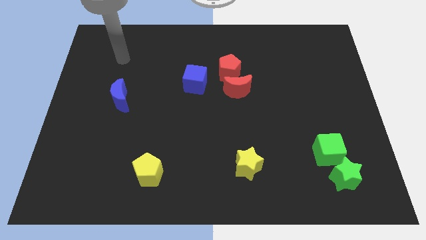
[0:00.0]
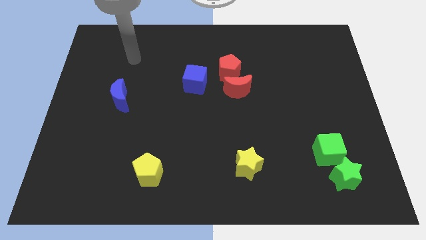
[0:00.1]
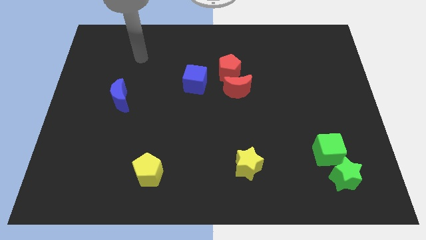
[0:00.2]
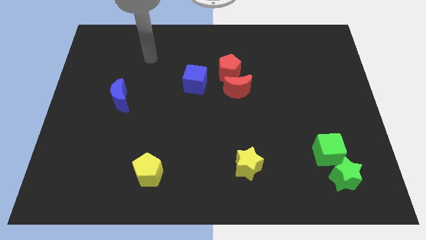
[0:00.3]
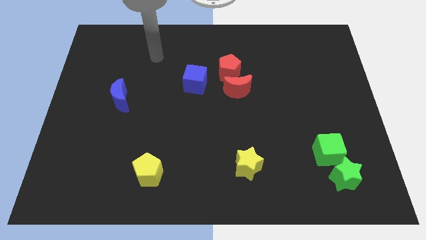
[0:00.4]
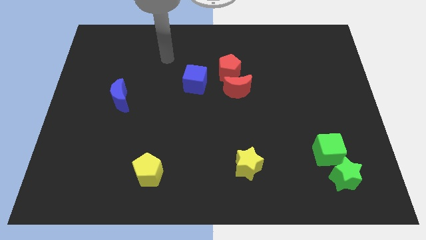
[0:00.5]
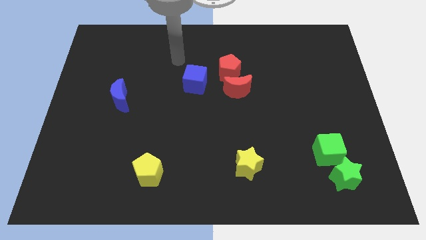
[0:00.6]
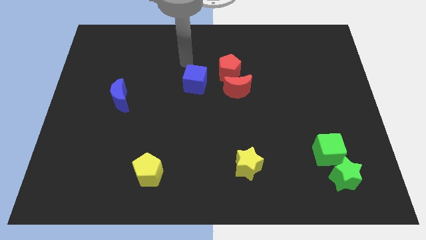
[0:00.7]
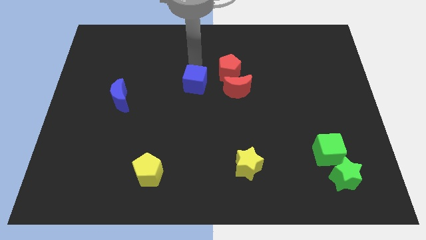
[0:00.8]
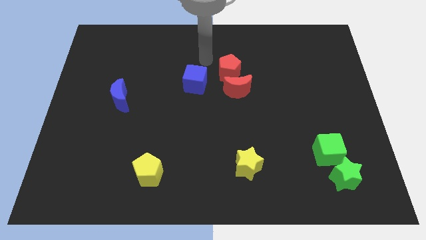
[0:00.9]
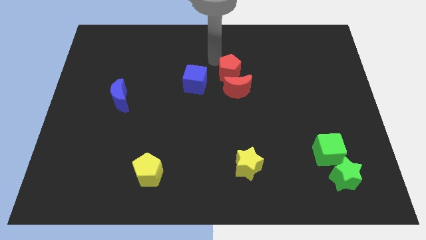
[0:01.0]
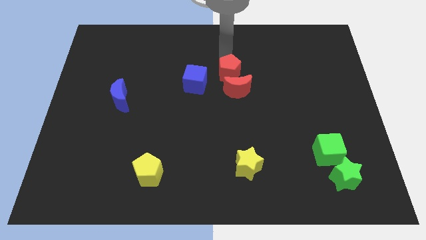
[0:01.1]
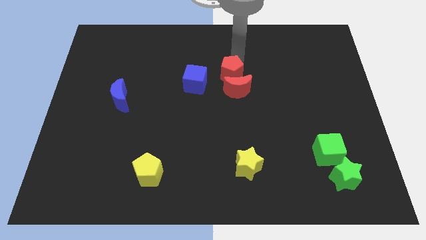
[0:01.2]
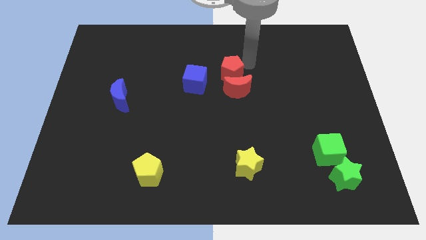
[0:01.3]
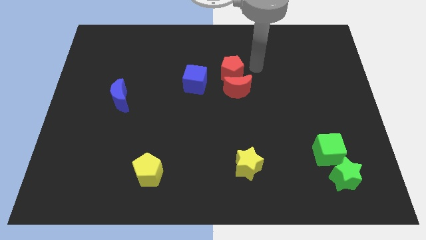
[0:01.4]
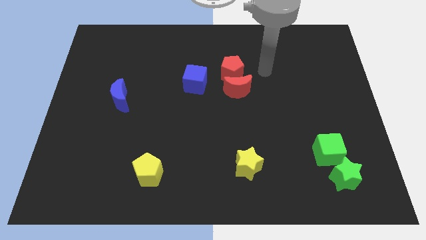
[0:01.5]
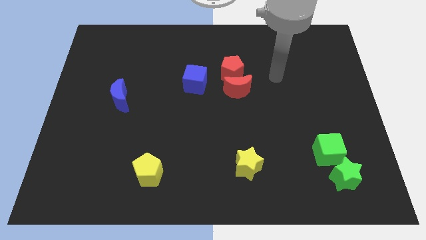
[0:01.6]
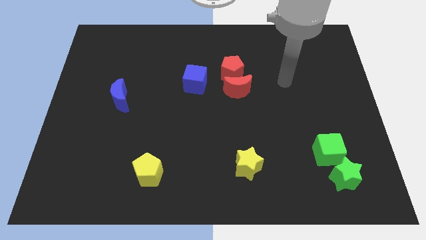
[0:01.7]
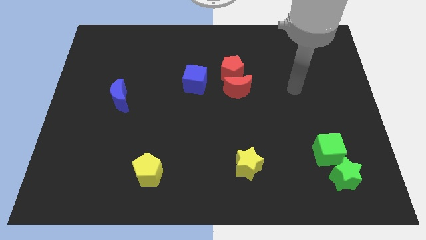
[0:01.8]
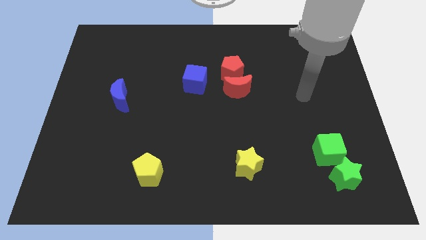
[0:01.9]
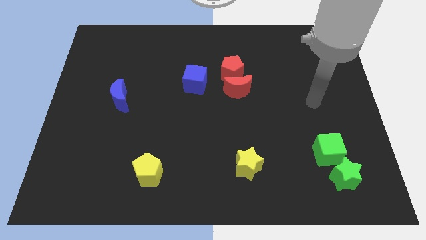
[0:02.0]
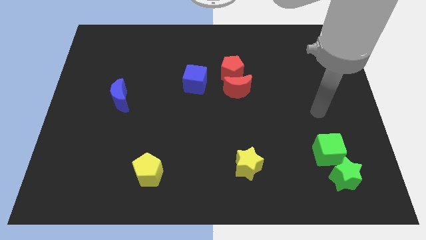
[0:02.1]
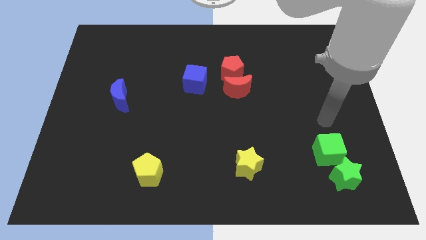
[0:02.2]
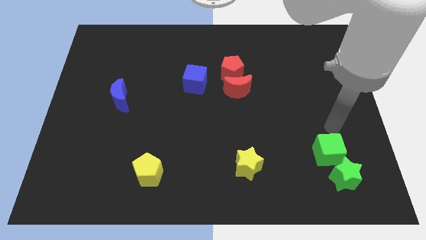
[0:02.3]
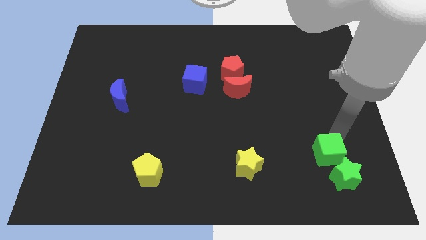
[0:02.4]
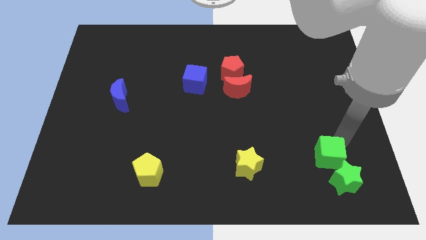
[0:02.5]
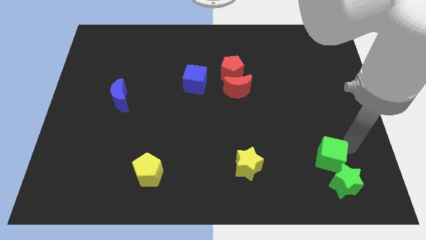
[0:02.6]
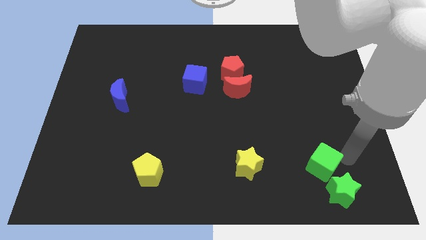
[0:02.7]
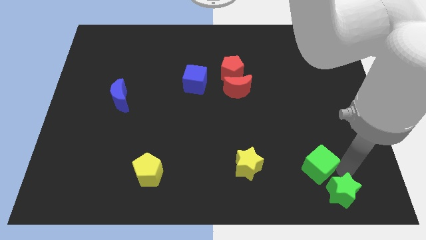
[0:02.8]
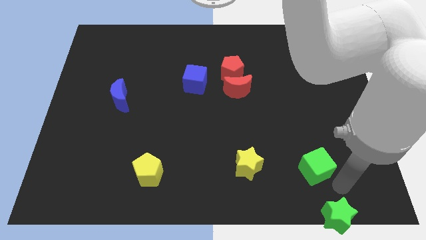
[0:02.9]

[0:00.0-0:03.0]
move the green cube away from the green star

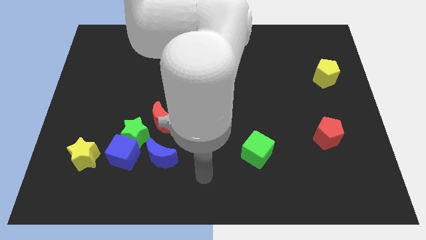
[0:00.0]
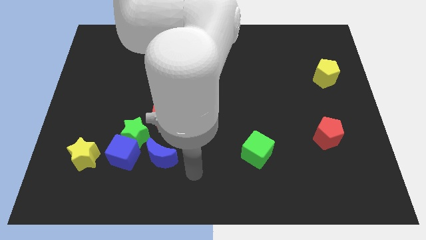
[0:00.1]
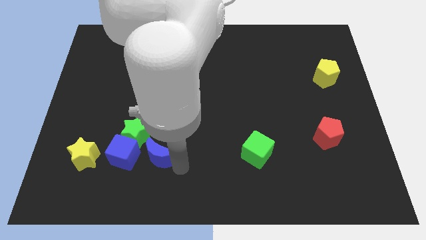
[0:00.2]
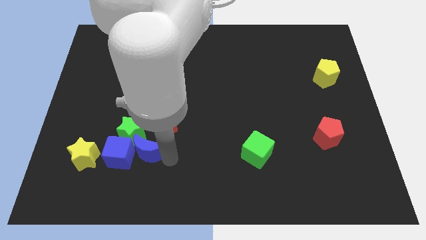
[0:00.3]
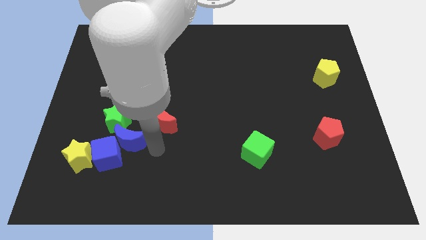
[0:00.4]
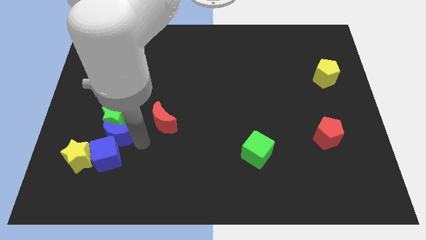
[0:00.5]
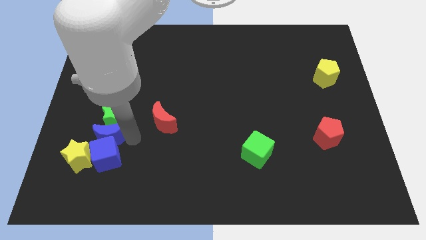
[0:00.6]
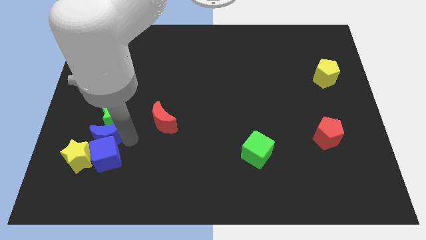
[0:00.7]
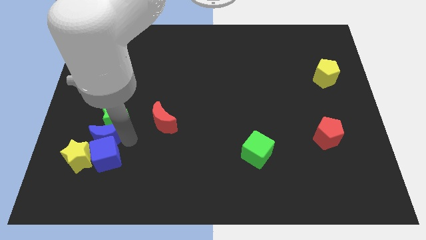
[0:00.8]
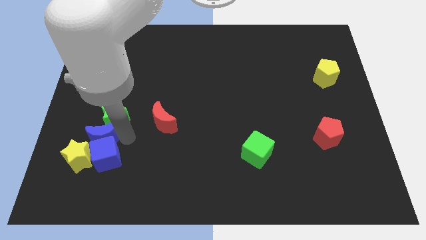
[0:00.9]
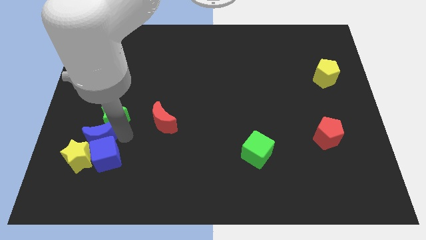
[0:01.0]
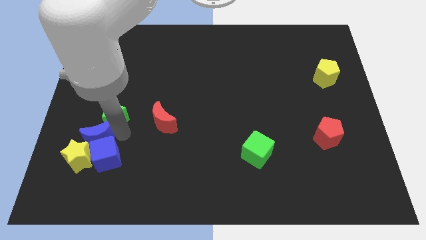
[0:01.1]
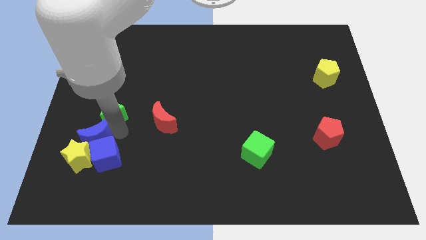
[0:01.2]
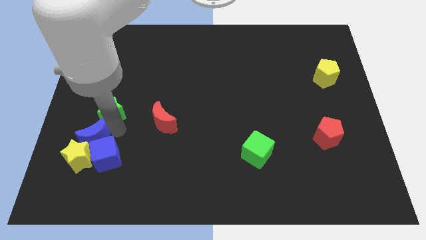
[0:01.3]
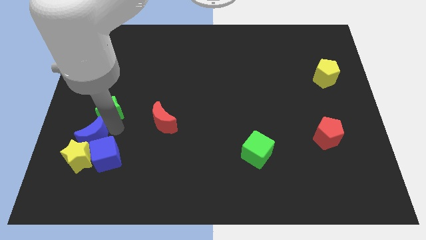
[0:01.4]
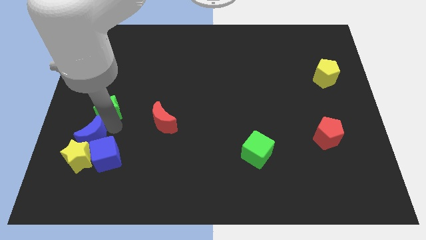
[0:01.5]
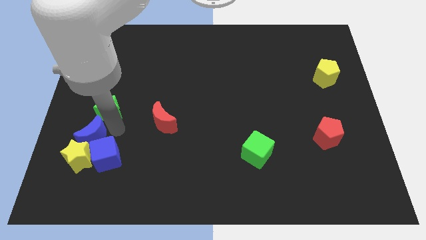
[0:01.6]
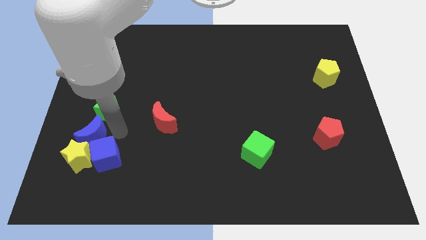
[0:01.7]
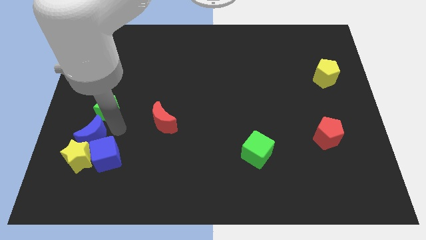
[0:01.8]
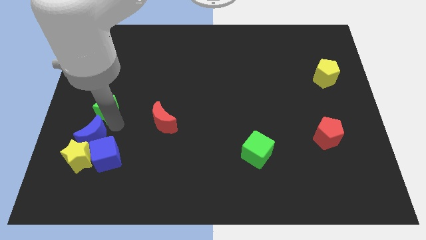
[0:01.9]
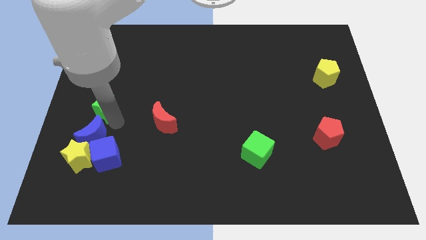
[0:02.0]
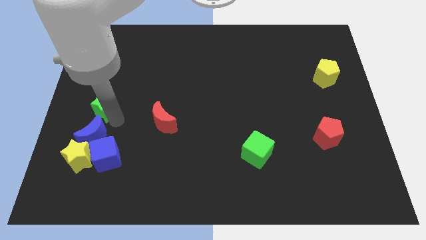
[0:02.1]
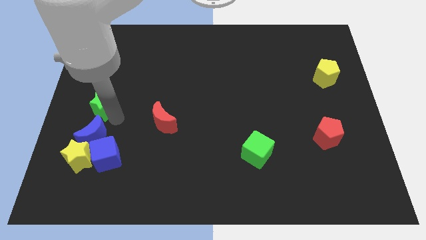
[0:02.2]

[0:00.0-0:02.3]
pull the green star apart from the blue cube, red moon, and blue moon

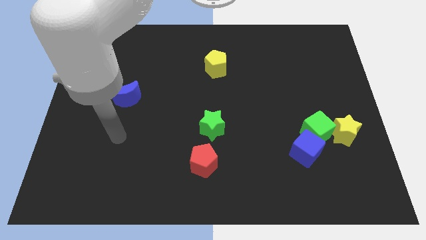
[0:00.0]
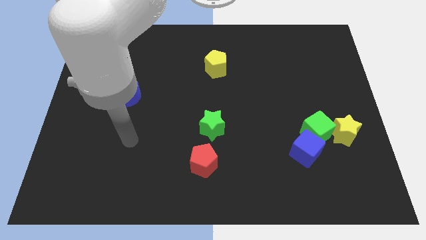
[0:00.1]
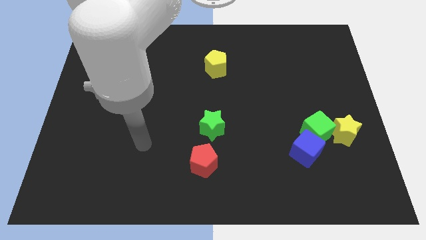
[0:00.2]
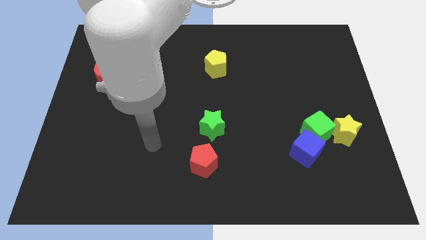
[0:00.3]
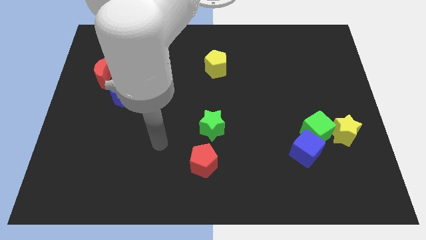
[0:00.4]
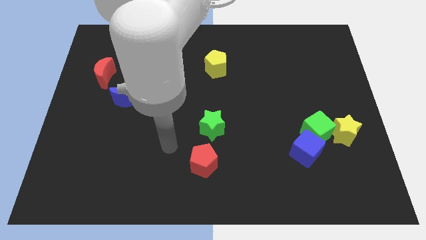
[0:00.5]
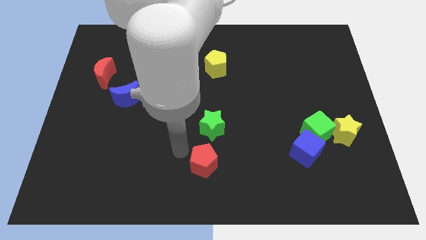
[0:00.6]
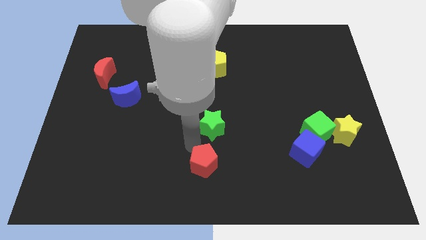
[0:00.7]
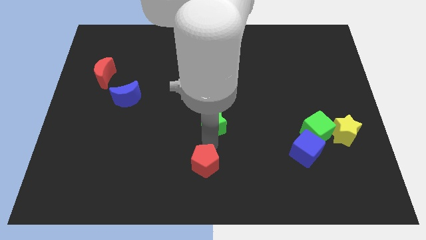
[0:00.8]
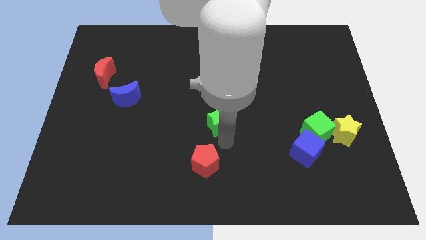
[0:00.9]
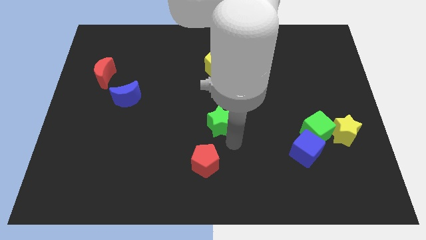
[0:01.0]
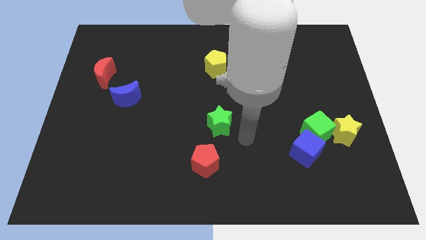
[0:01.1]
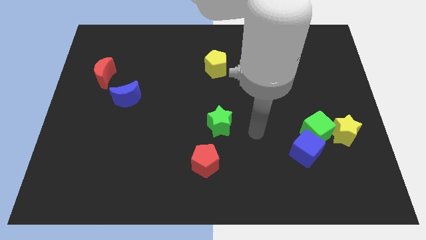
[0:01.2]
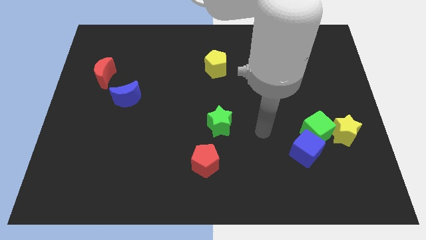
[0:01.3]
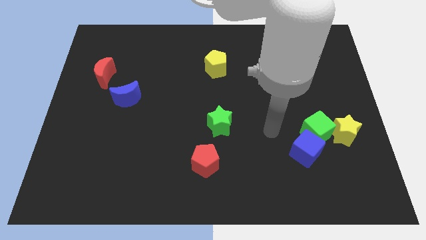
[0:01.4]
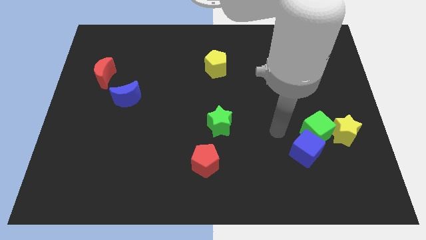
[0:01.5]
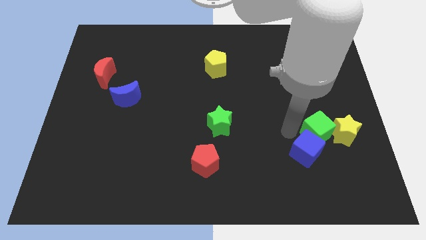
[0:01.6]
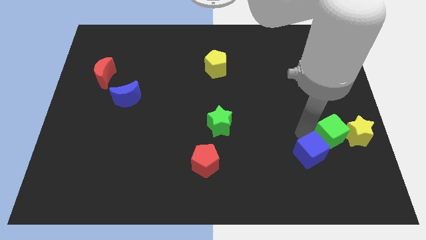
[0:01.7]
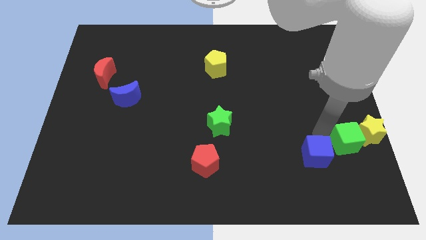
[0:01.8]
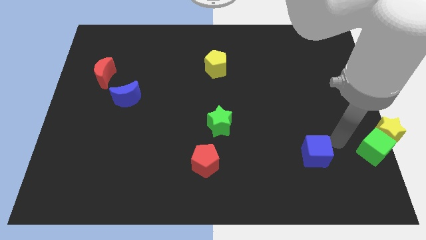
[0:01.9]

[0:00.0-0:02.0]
move the blue cube away from the green cube

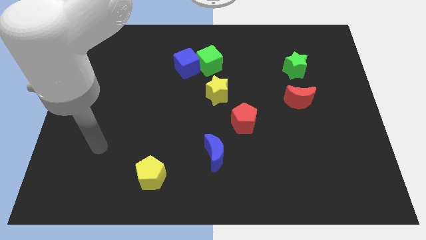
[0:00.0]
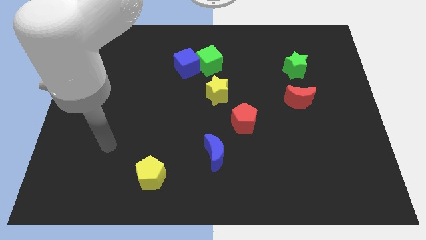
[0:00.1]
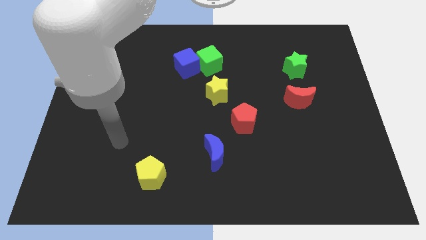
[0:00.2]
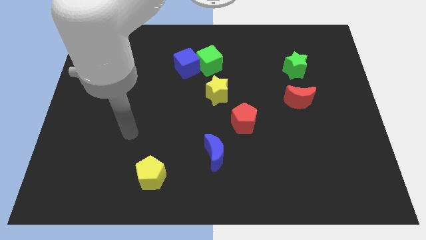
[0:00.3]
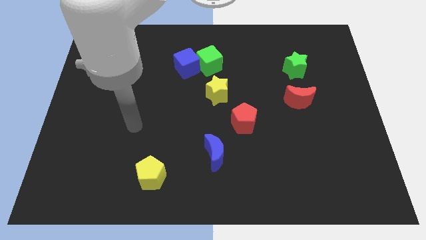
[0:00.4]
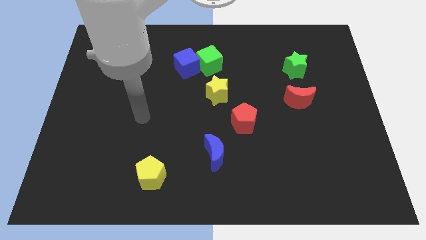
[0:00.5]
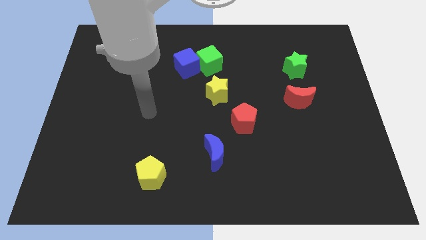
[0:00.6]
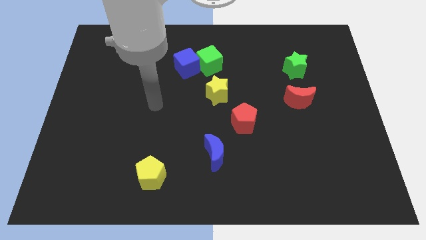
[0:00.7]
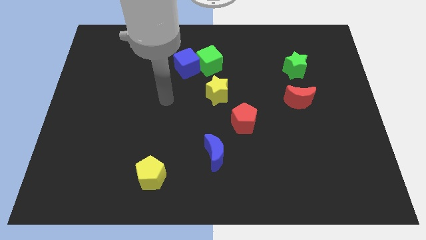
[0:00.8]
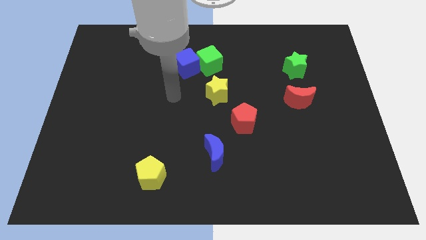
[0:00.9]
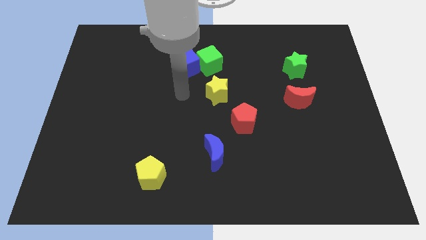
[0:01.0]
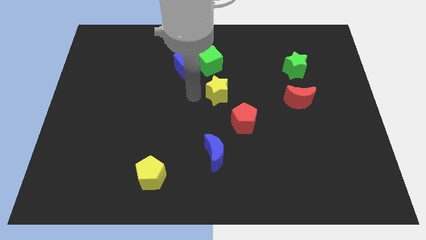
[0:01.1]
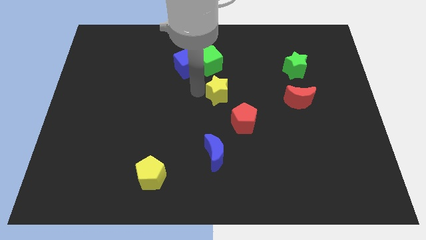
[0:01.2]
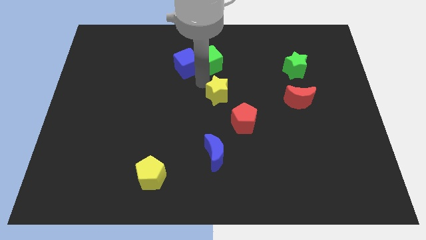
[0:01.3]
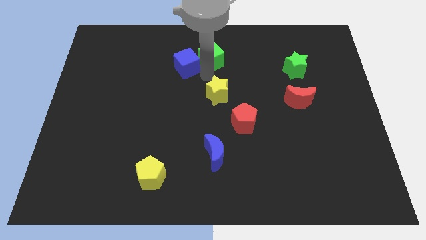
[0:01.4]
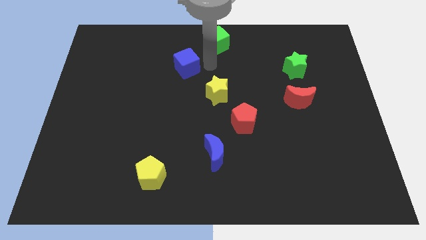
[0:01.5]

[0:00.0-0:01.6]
separate the blue cube from the green cube

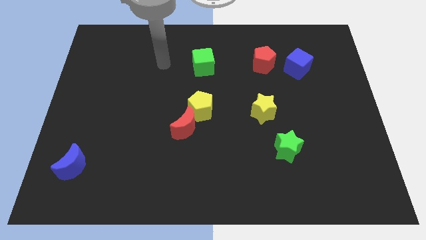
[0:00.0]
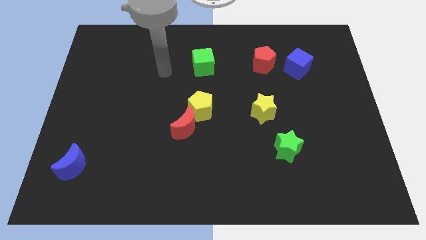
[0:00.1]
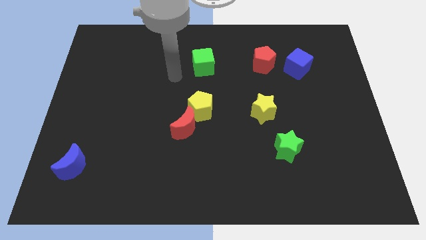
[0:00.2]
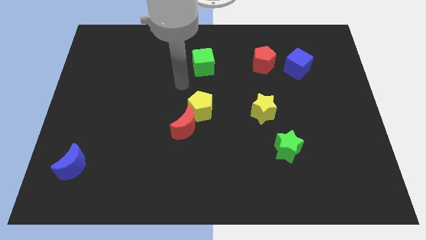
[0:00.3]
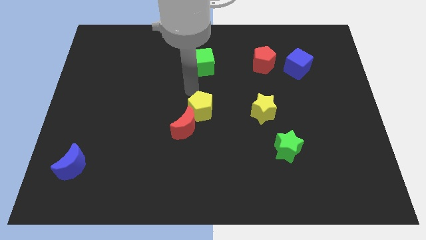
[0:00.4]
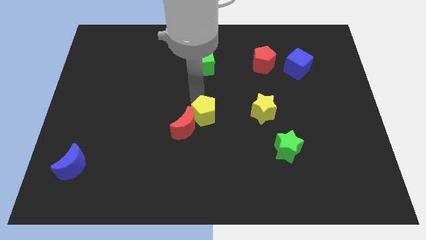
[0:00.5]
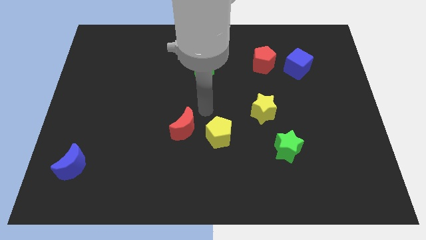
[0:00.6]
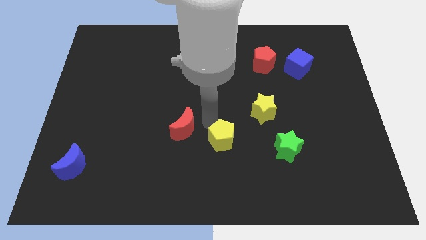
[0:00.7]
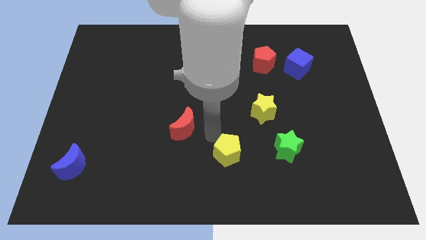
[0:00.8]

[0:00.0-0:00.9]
move the red moon away from the yellow pentagon
